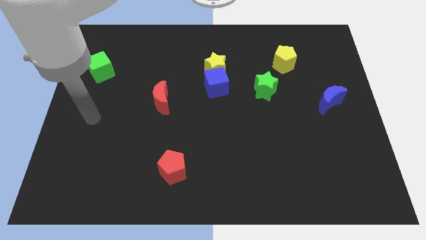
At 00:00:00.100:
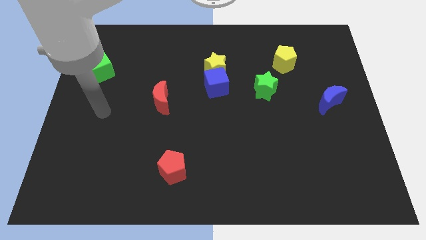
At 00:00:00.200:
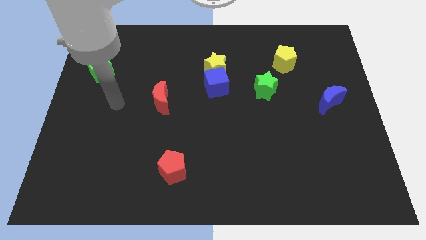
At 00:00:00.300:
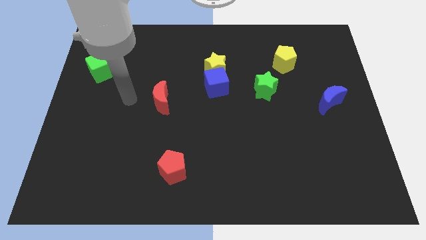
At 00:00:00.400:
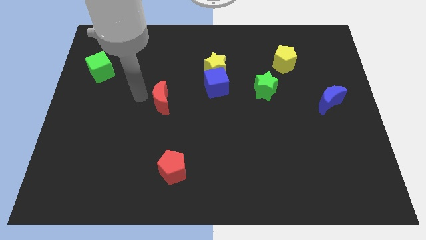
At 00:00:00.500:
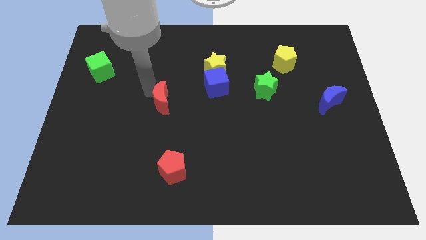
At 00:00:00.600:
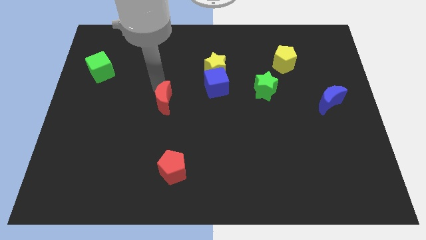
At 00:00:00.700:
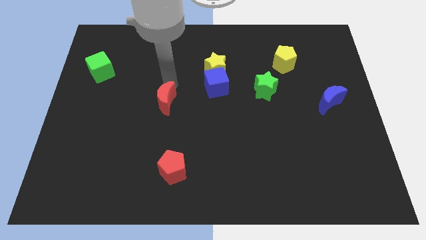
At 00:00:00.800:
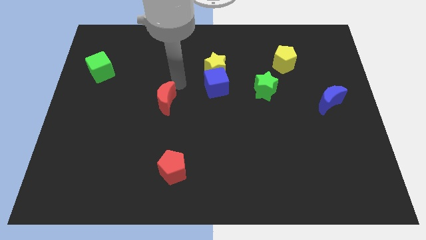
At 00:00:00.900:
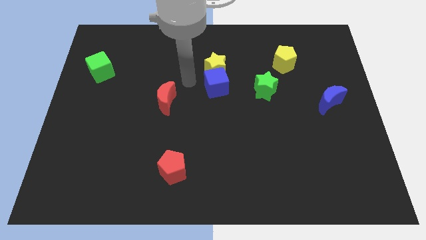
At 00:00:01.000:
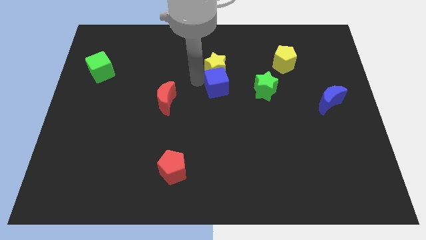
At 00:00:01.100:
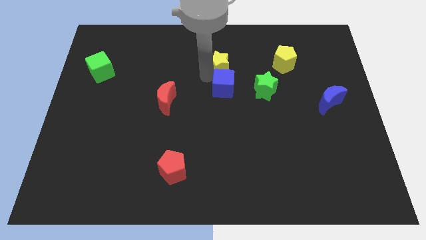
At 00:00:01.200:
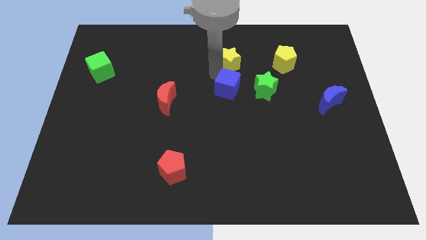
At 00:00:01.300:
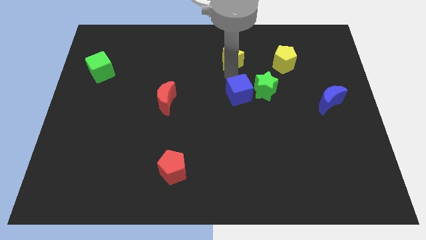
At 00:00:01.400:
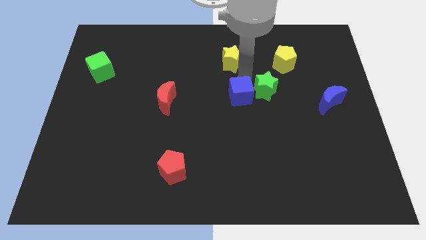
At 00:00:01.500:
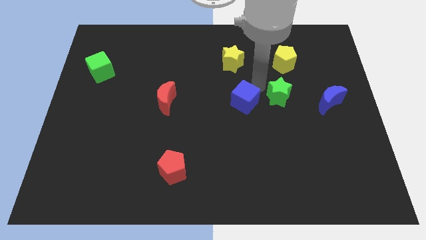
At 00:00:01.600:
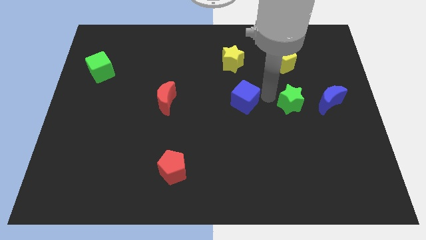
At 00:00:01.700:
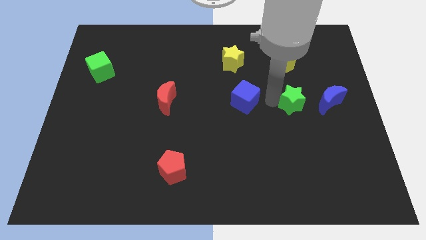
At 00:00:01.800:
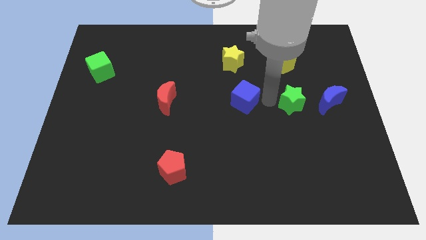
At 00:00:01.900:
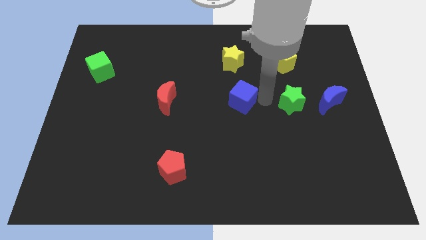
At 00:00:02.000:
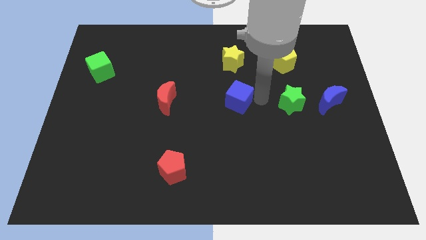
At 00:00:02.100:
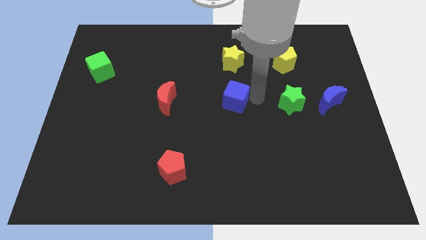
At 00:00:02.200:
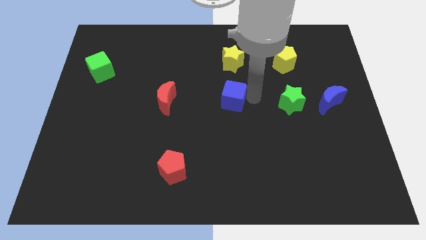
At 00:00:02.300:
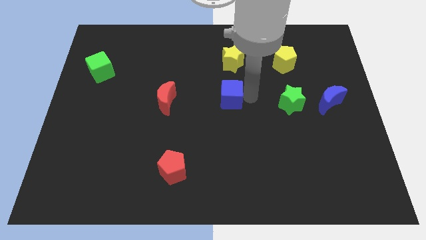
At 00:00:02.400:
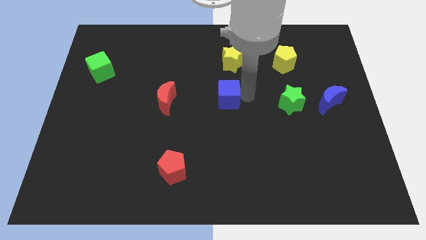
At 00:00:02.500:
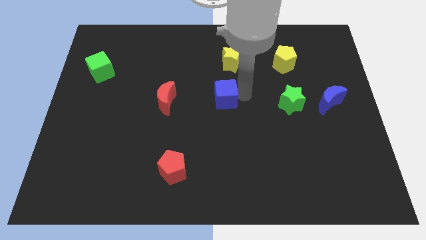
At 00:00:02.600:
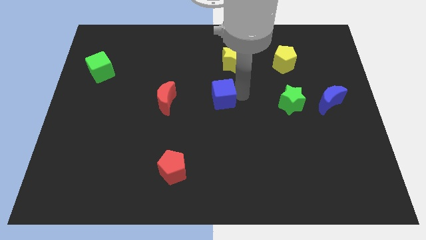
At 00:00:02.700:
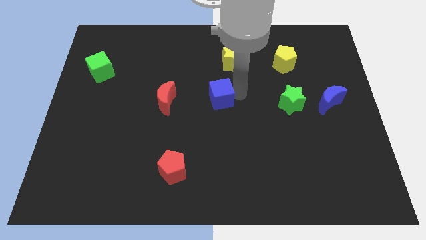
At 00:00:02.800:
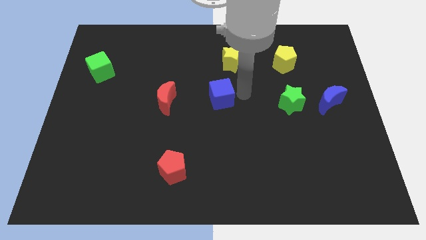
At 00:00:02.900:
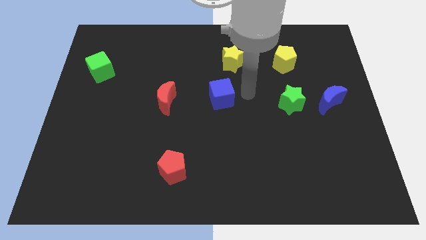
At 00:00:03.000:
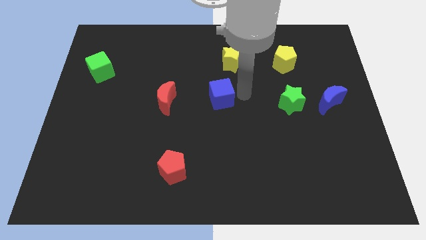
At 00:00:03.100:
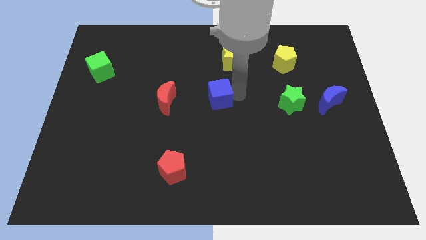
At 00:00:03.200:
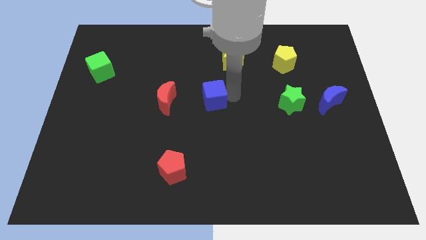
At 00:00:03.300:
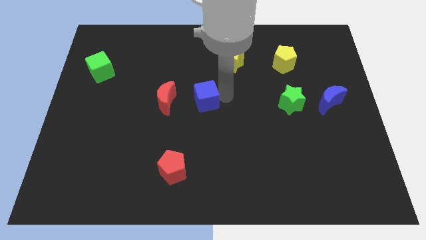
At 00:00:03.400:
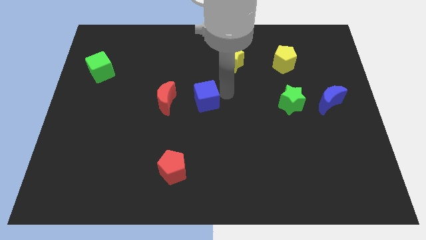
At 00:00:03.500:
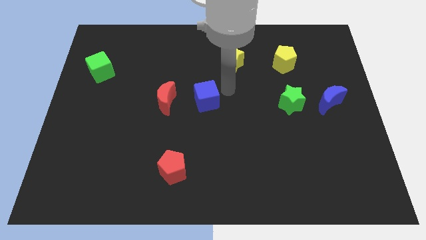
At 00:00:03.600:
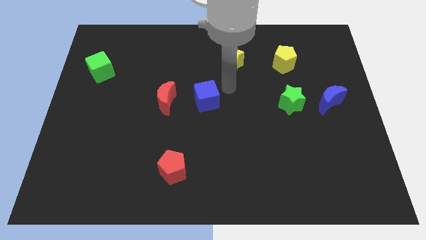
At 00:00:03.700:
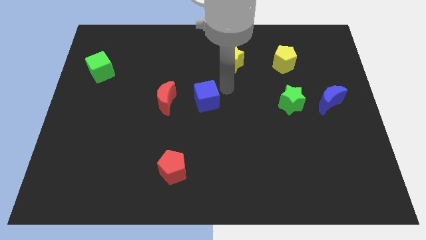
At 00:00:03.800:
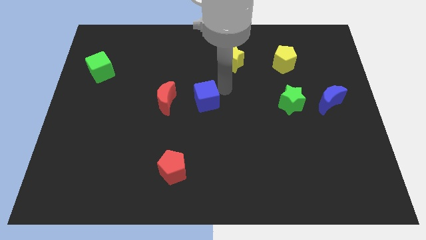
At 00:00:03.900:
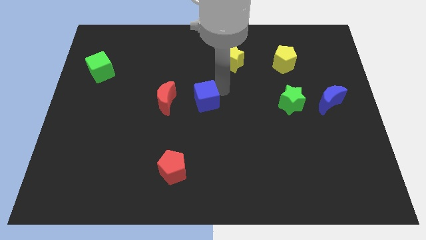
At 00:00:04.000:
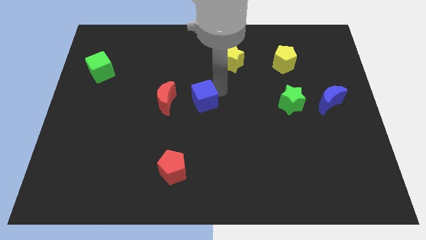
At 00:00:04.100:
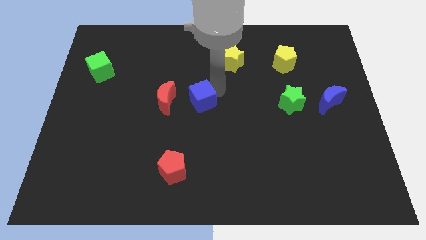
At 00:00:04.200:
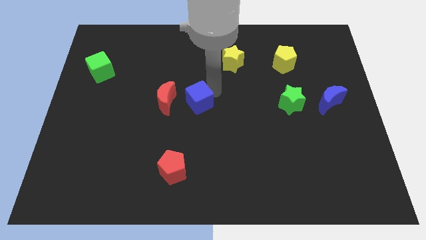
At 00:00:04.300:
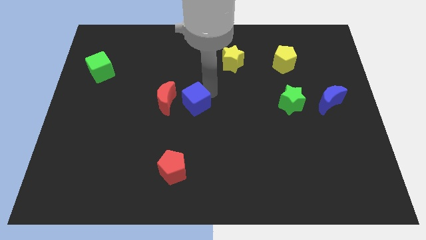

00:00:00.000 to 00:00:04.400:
push the blue cube a little down and to the left

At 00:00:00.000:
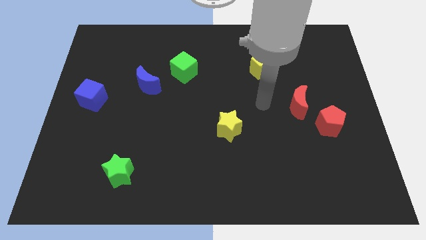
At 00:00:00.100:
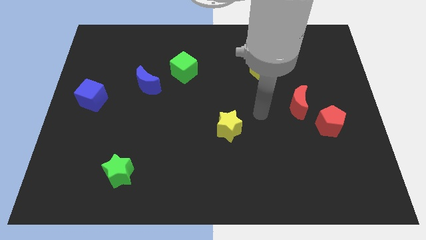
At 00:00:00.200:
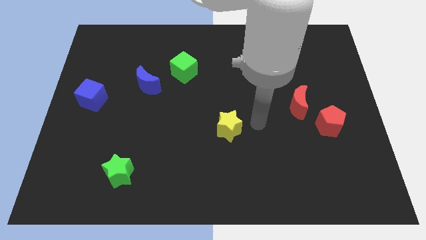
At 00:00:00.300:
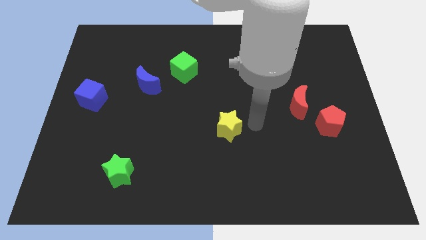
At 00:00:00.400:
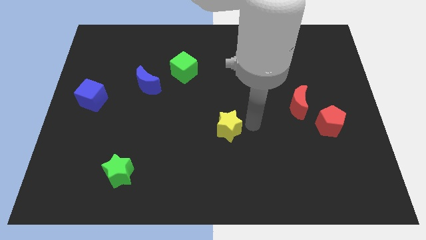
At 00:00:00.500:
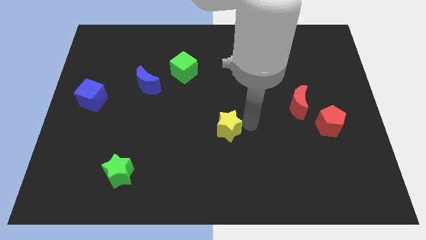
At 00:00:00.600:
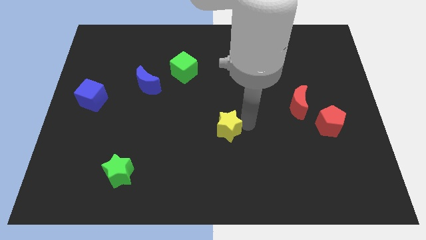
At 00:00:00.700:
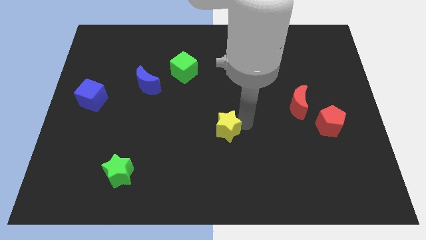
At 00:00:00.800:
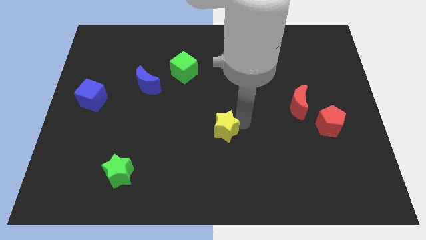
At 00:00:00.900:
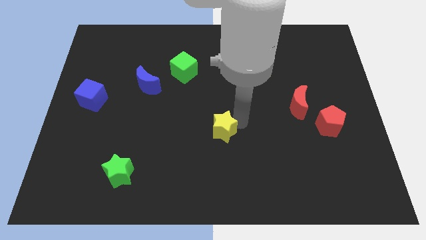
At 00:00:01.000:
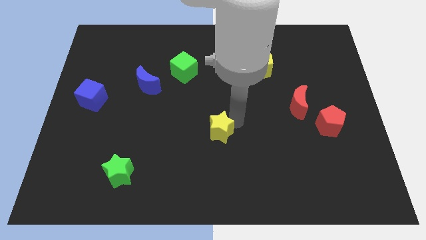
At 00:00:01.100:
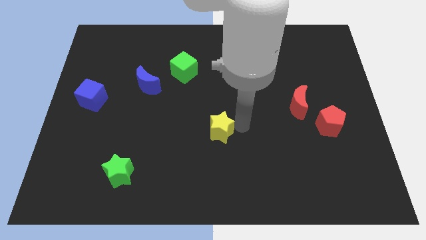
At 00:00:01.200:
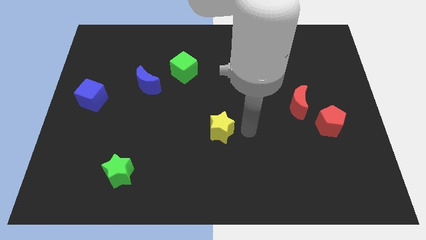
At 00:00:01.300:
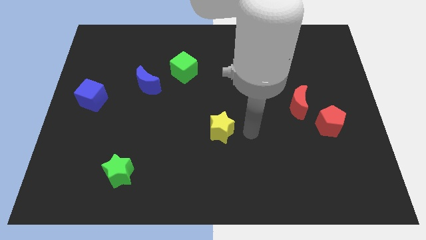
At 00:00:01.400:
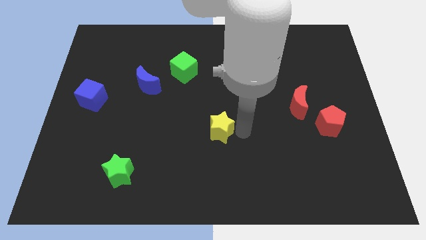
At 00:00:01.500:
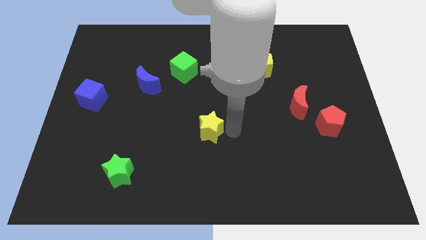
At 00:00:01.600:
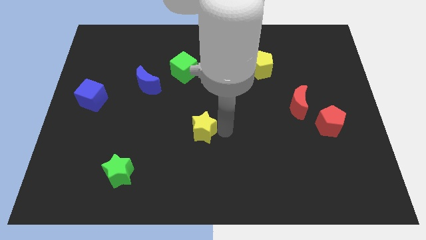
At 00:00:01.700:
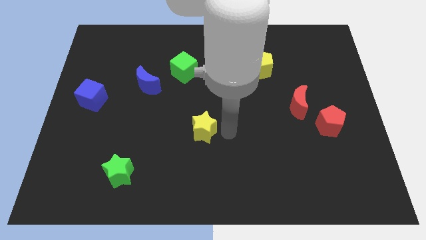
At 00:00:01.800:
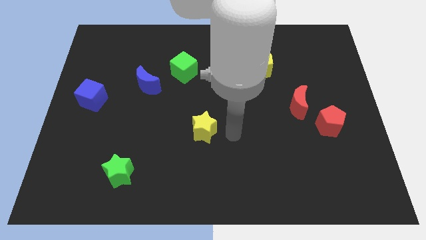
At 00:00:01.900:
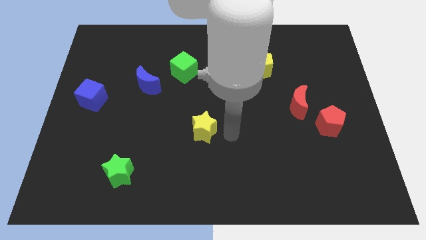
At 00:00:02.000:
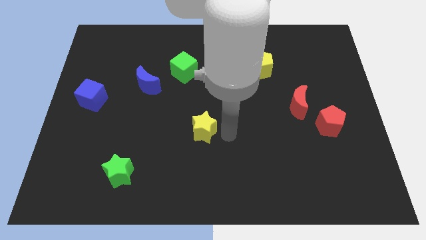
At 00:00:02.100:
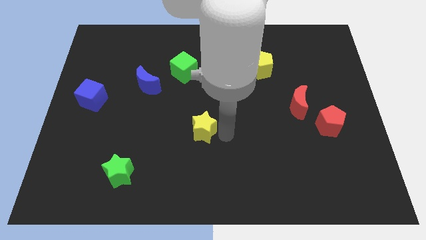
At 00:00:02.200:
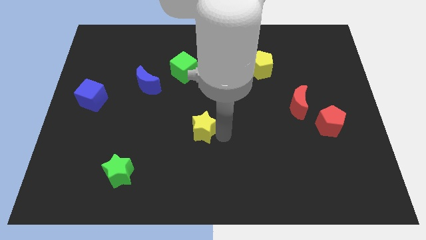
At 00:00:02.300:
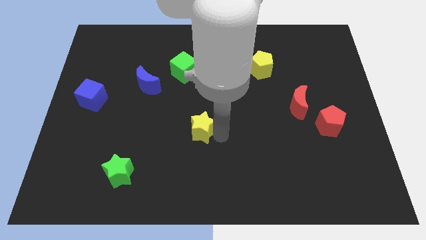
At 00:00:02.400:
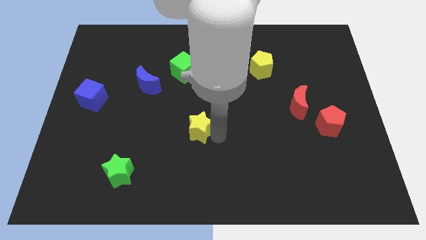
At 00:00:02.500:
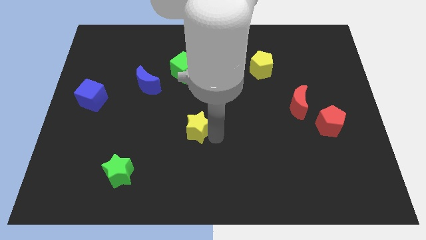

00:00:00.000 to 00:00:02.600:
move the yellow star a little left

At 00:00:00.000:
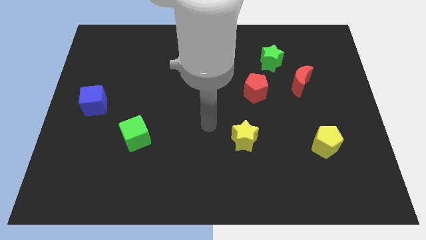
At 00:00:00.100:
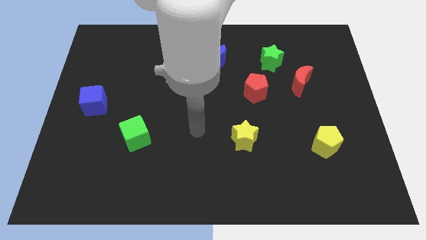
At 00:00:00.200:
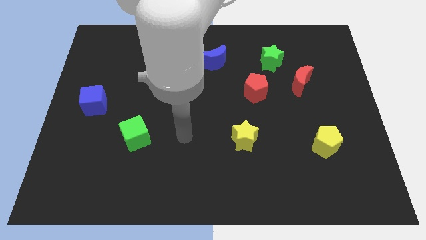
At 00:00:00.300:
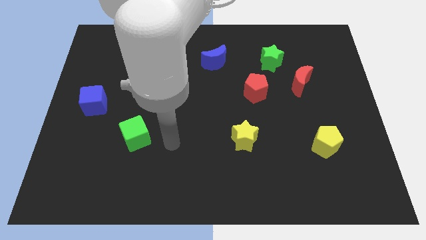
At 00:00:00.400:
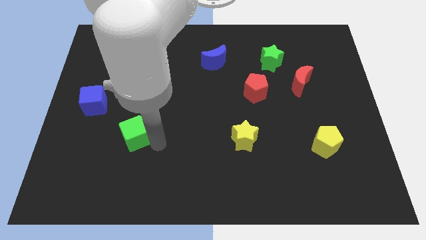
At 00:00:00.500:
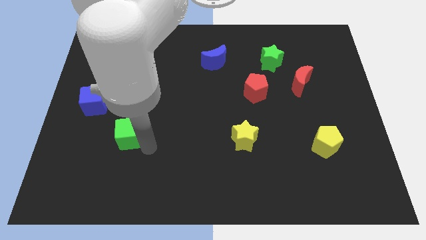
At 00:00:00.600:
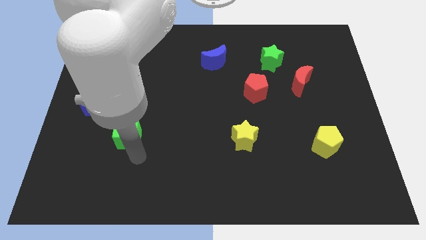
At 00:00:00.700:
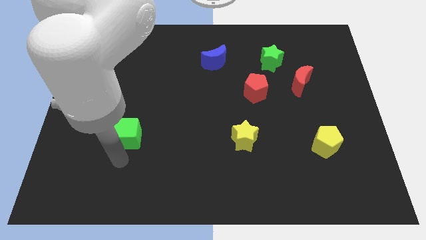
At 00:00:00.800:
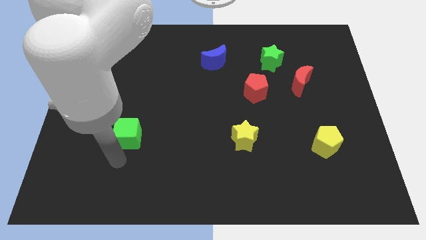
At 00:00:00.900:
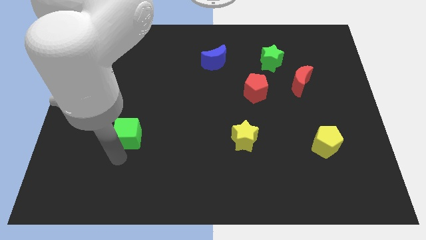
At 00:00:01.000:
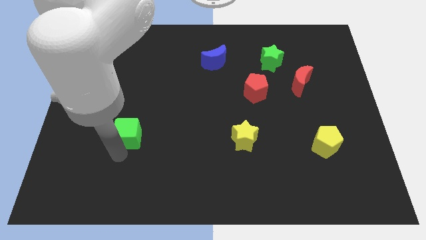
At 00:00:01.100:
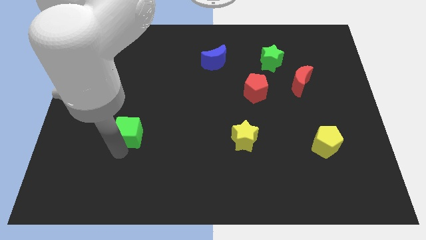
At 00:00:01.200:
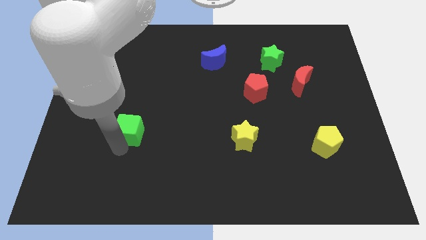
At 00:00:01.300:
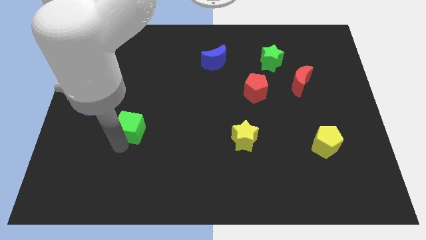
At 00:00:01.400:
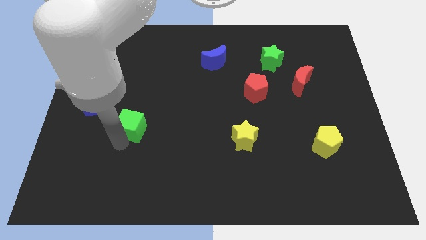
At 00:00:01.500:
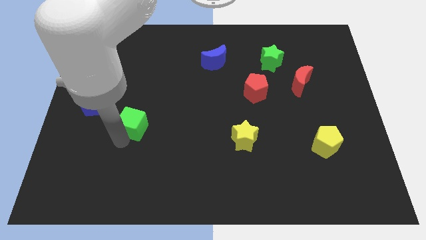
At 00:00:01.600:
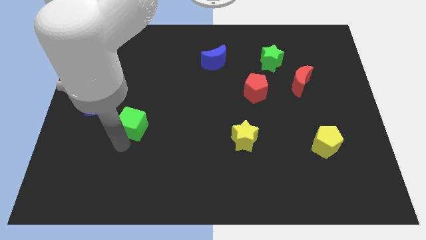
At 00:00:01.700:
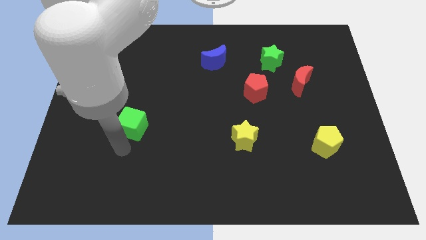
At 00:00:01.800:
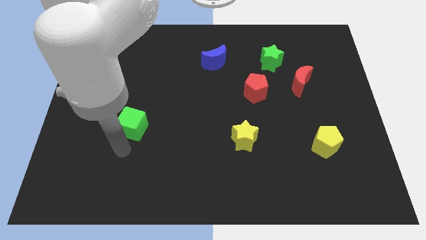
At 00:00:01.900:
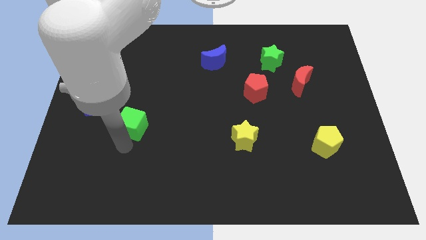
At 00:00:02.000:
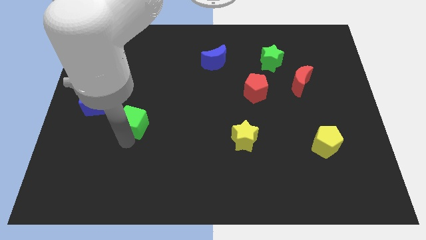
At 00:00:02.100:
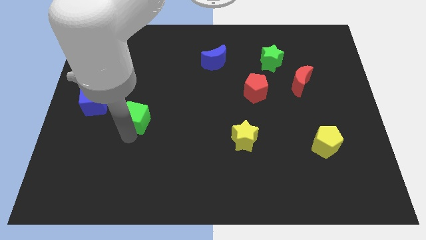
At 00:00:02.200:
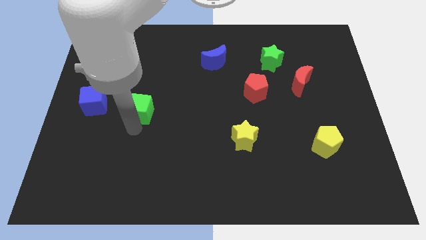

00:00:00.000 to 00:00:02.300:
move the green cube upwards a bit
